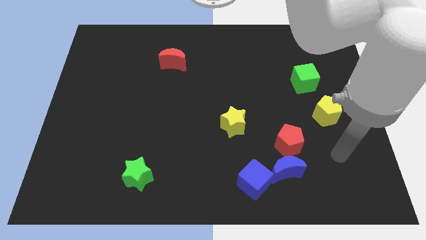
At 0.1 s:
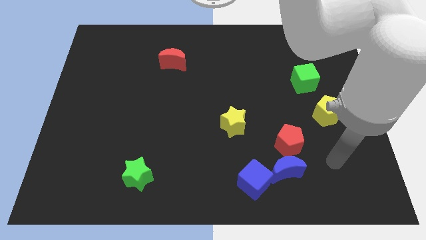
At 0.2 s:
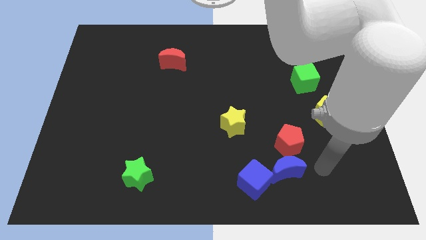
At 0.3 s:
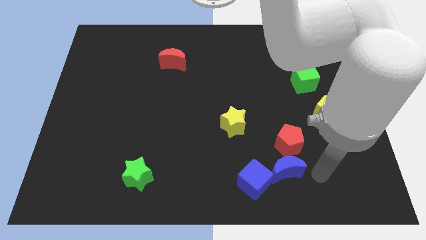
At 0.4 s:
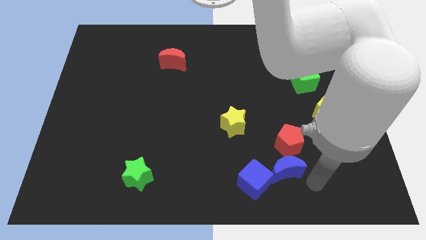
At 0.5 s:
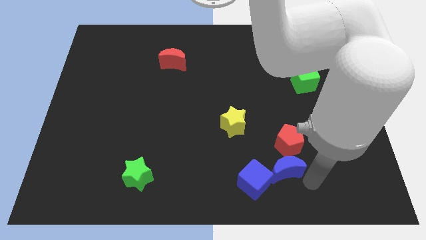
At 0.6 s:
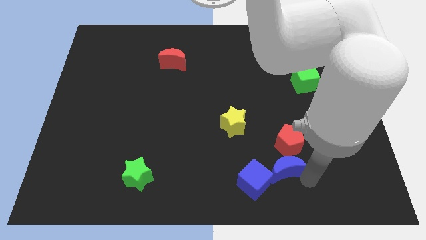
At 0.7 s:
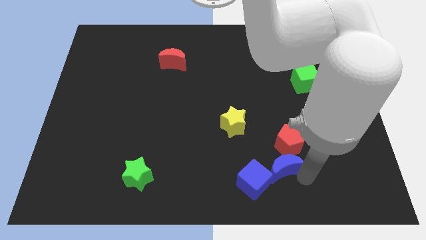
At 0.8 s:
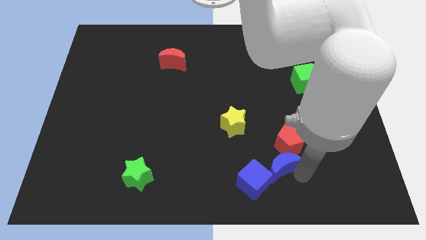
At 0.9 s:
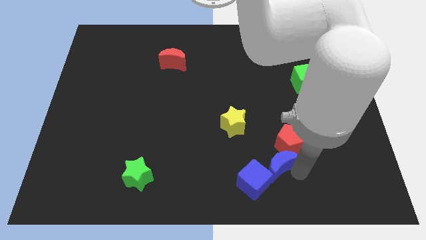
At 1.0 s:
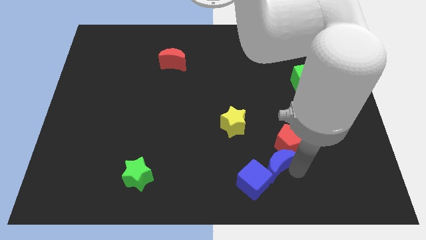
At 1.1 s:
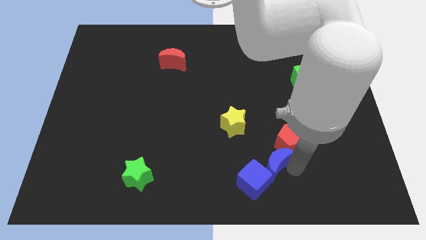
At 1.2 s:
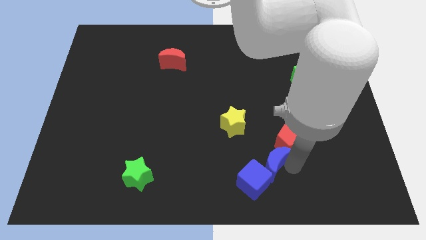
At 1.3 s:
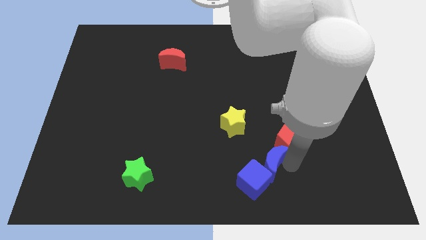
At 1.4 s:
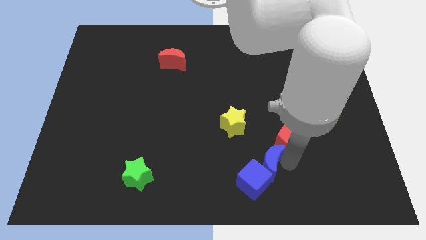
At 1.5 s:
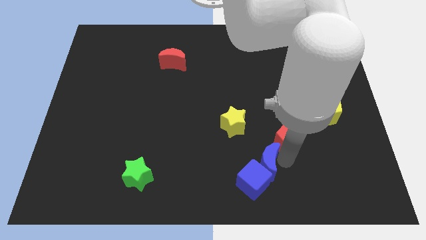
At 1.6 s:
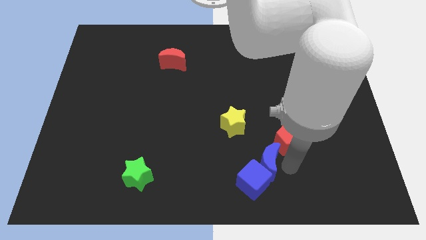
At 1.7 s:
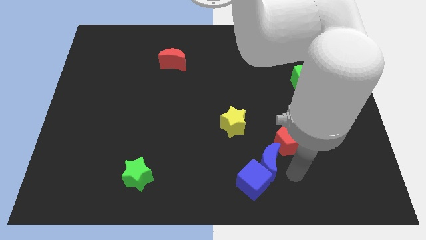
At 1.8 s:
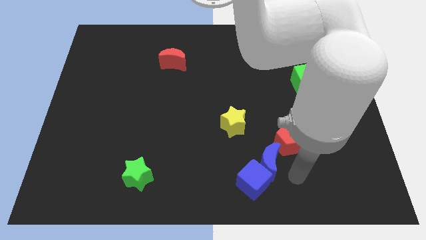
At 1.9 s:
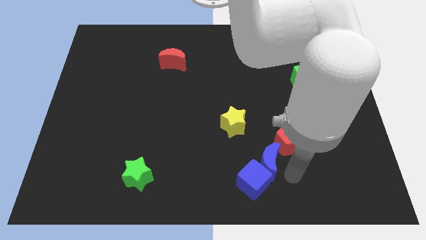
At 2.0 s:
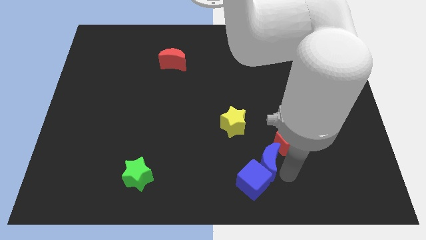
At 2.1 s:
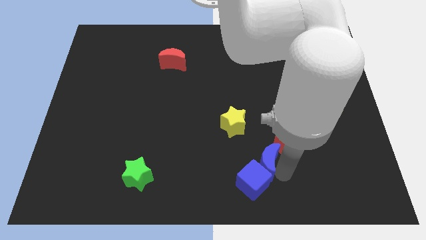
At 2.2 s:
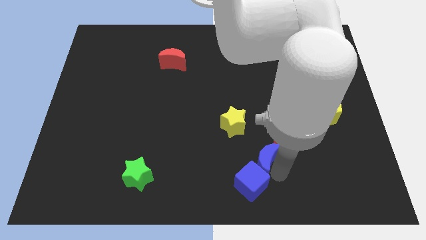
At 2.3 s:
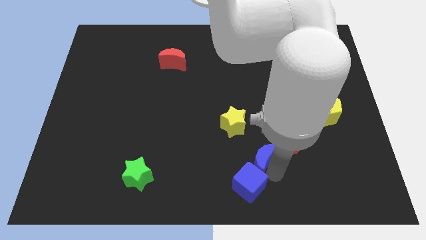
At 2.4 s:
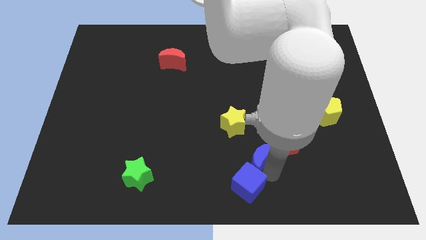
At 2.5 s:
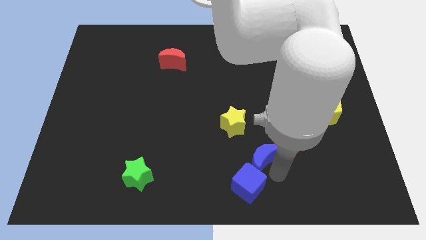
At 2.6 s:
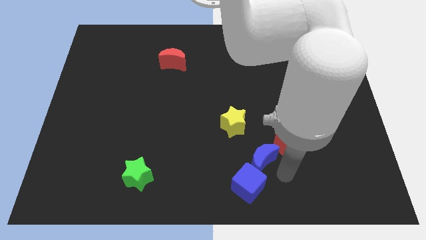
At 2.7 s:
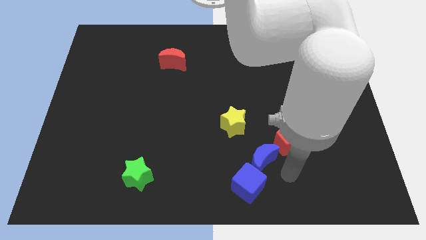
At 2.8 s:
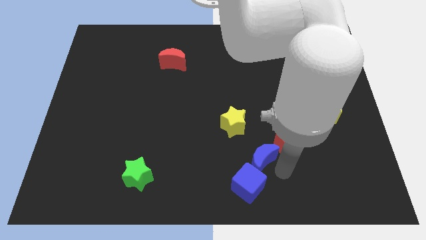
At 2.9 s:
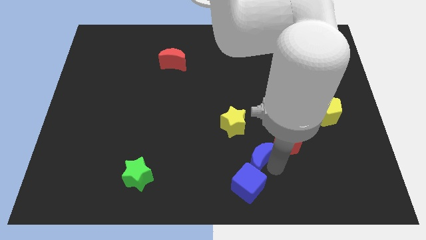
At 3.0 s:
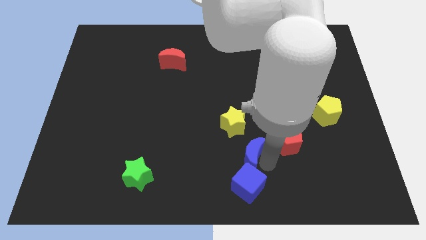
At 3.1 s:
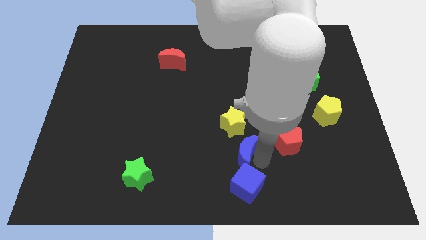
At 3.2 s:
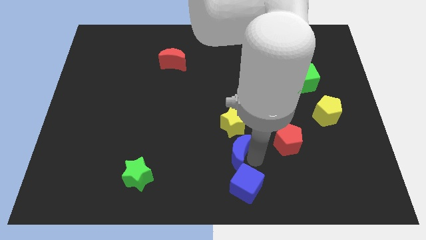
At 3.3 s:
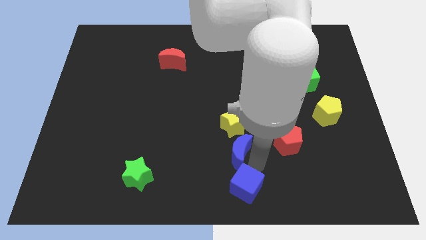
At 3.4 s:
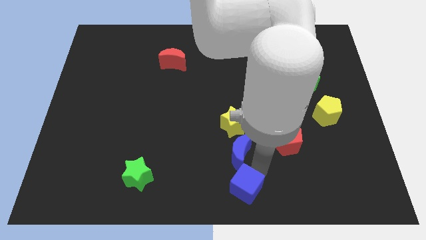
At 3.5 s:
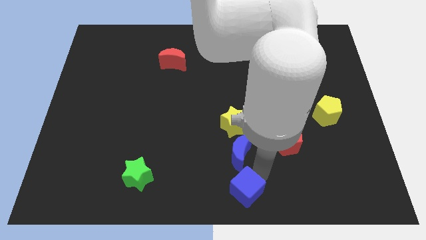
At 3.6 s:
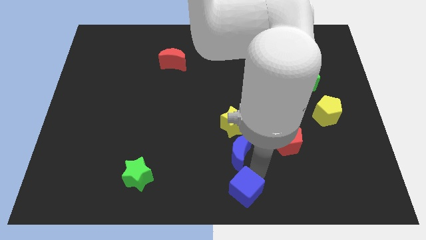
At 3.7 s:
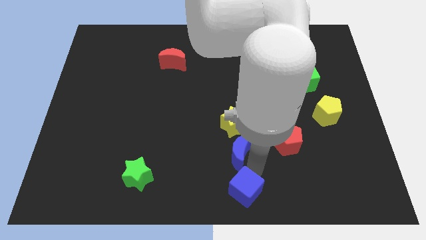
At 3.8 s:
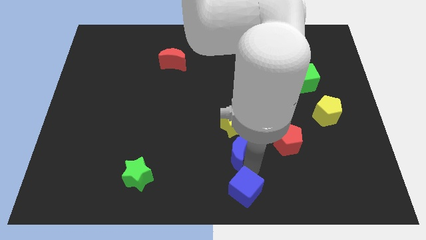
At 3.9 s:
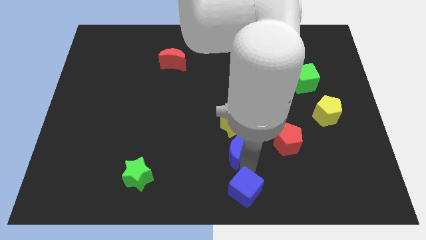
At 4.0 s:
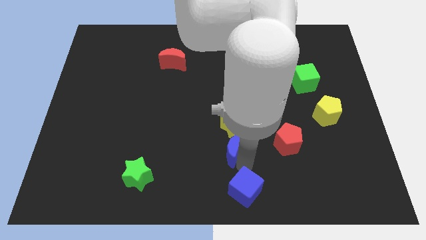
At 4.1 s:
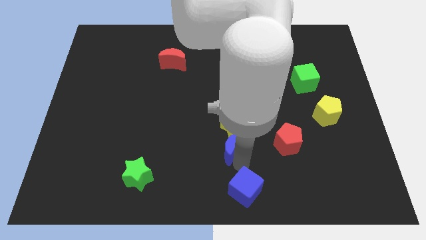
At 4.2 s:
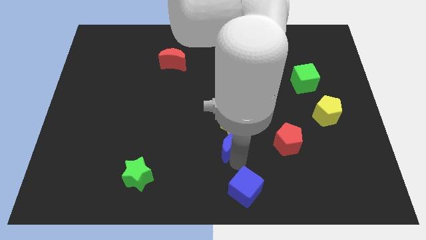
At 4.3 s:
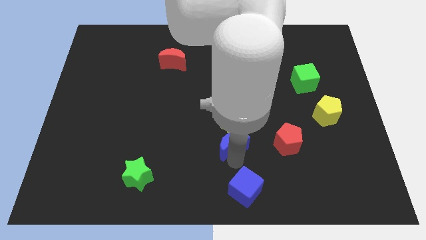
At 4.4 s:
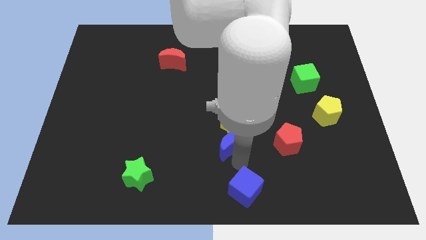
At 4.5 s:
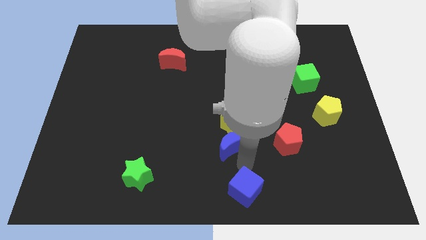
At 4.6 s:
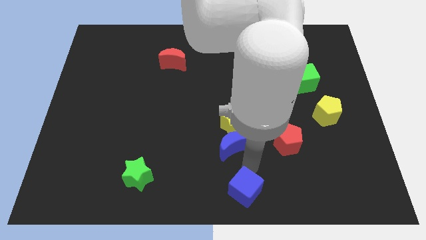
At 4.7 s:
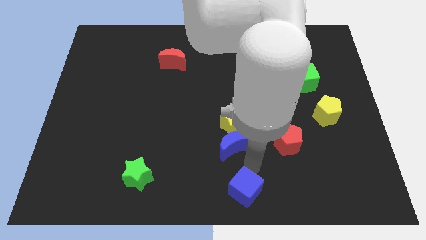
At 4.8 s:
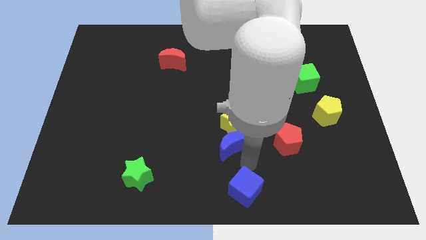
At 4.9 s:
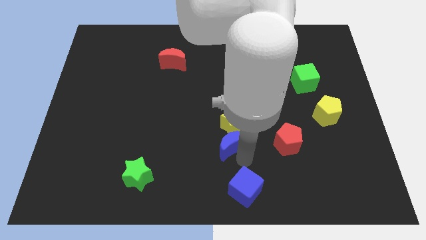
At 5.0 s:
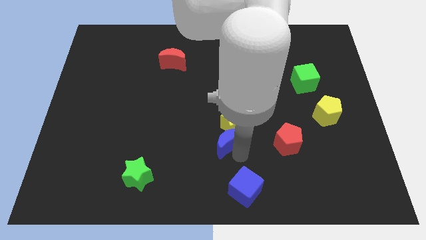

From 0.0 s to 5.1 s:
push the blue moon to the middle

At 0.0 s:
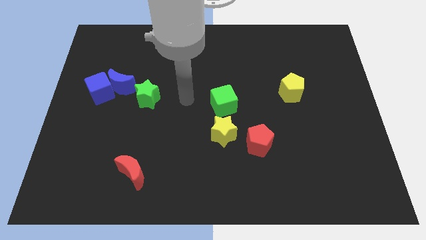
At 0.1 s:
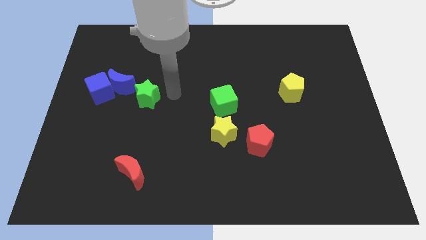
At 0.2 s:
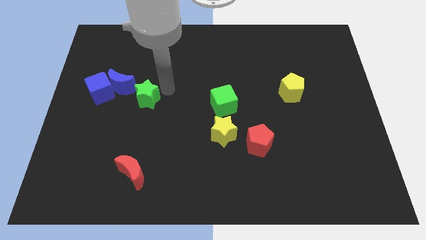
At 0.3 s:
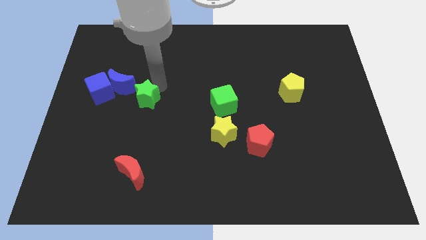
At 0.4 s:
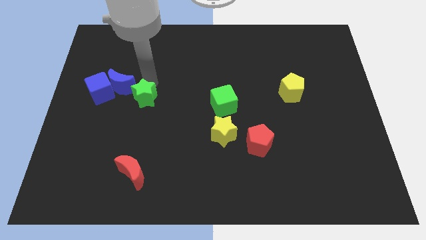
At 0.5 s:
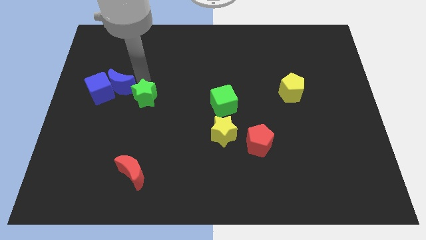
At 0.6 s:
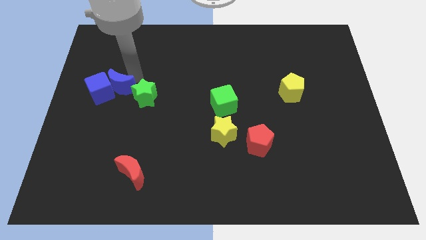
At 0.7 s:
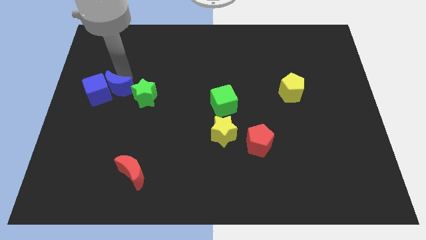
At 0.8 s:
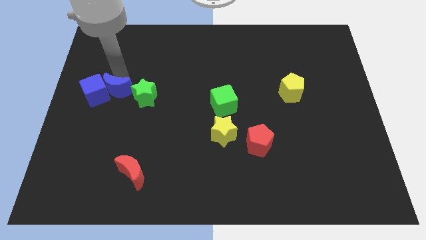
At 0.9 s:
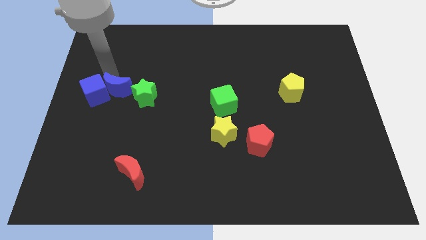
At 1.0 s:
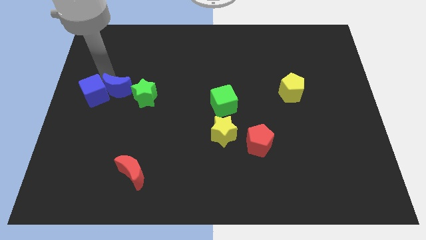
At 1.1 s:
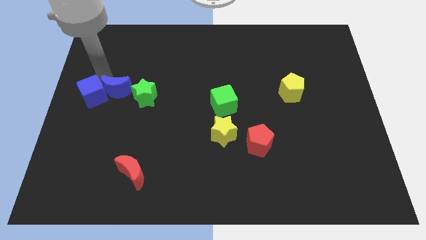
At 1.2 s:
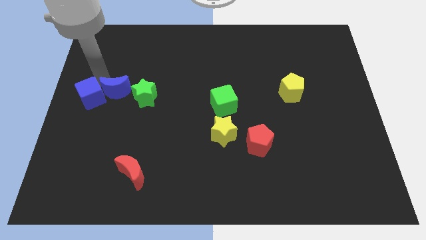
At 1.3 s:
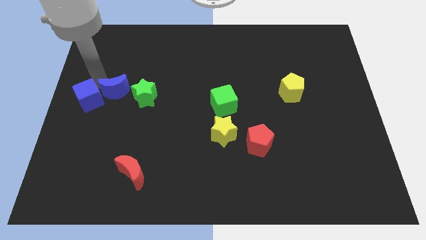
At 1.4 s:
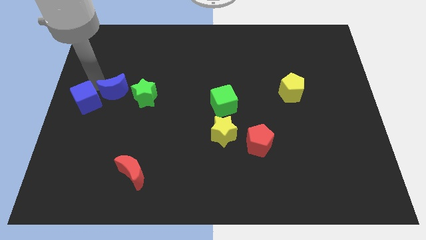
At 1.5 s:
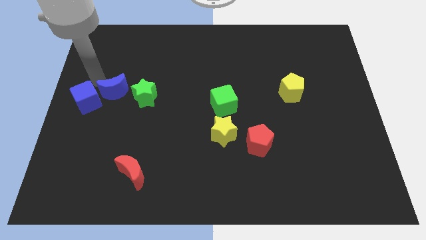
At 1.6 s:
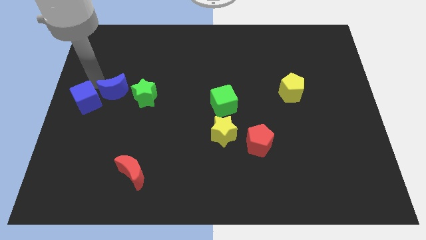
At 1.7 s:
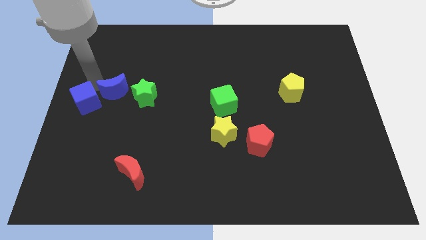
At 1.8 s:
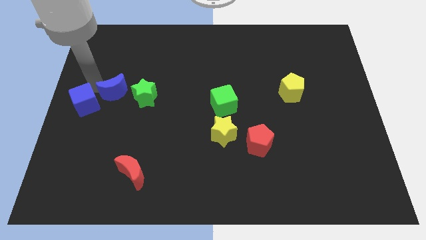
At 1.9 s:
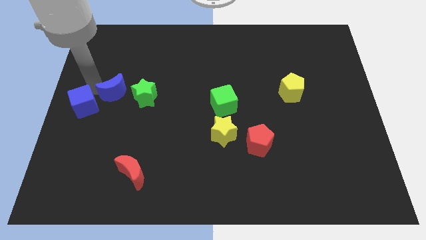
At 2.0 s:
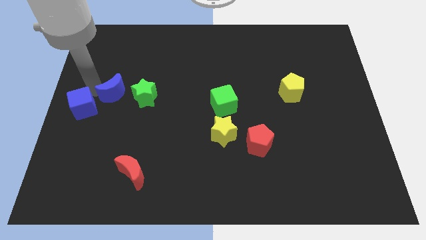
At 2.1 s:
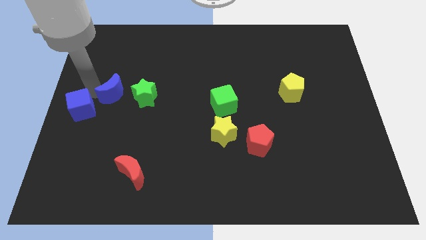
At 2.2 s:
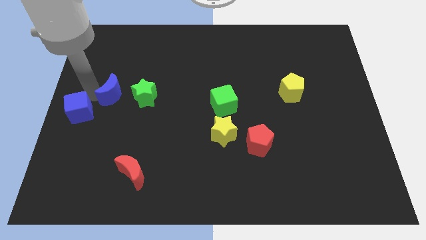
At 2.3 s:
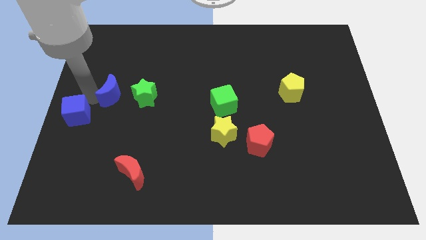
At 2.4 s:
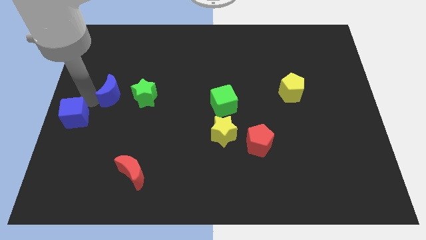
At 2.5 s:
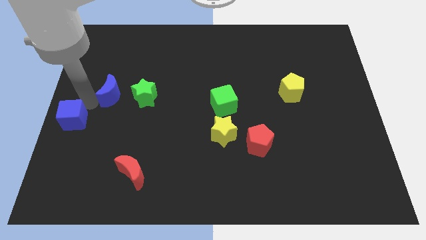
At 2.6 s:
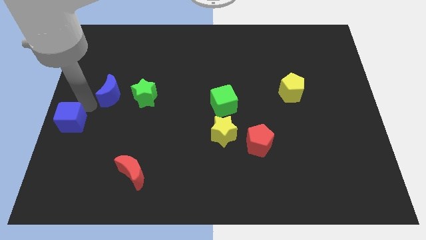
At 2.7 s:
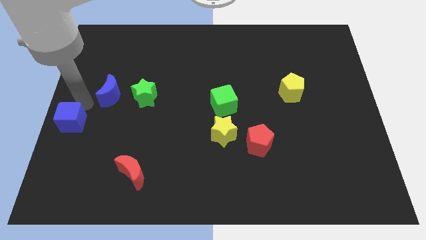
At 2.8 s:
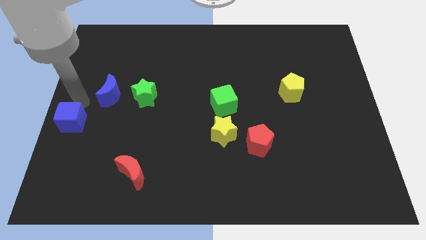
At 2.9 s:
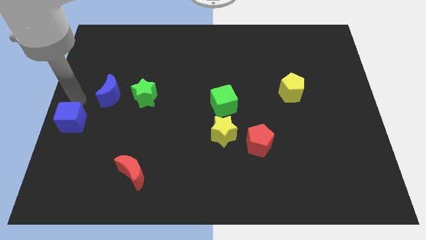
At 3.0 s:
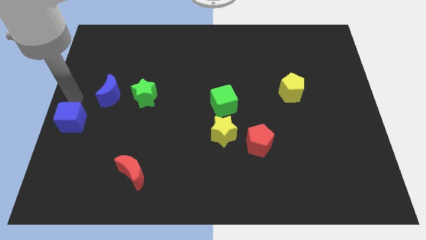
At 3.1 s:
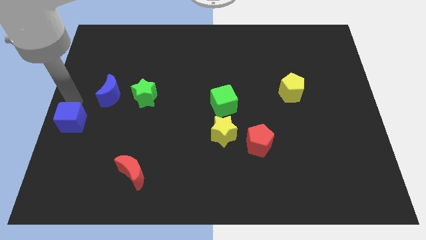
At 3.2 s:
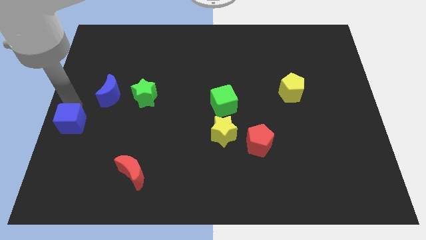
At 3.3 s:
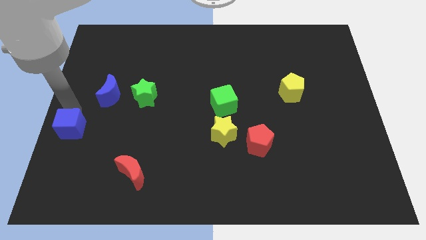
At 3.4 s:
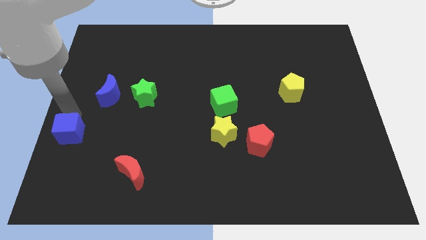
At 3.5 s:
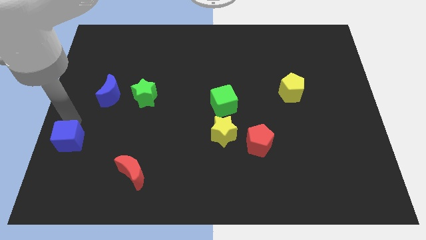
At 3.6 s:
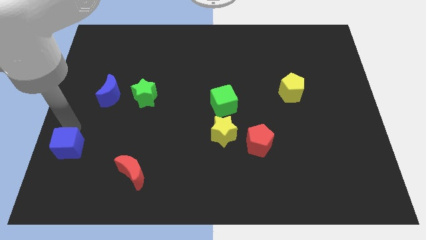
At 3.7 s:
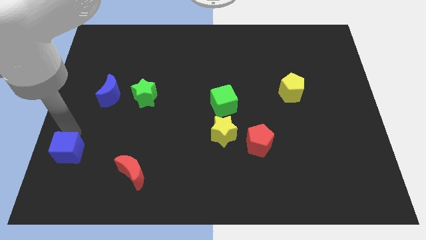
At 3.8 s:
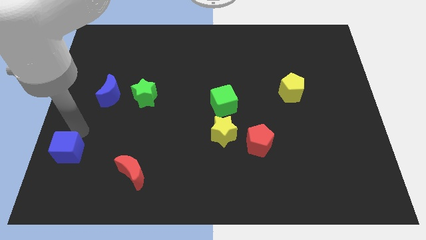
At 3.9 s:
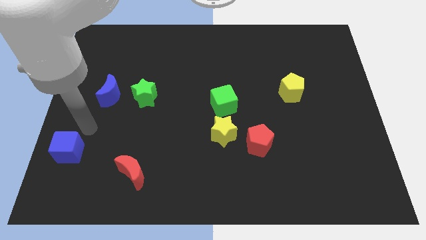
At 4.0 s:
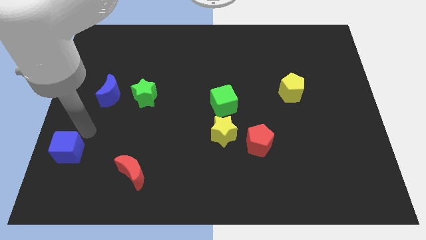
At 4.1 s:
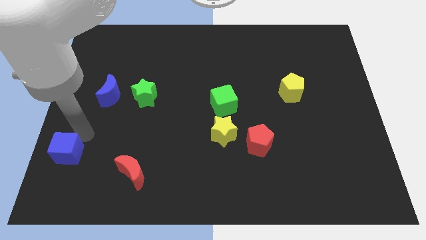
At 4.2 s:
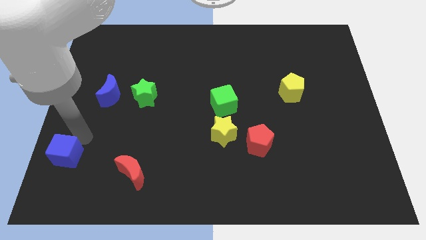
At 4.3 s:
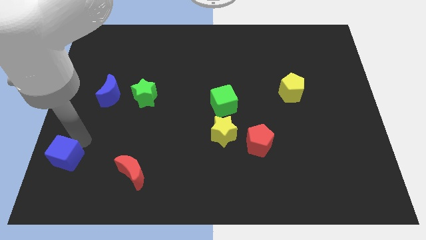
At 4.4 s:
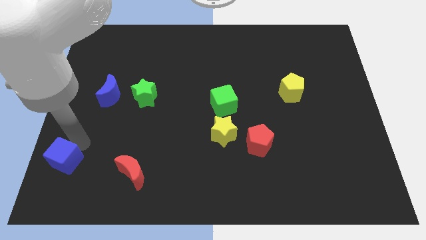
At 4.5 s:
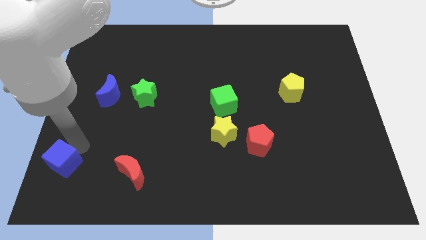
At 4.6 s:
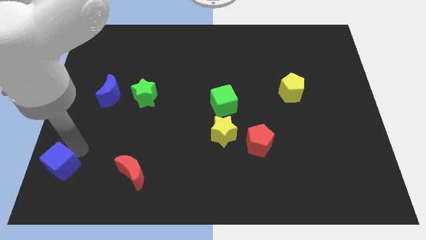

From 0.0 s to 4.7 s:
put the blue cube to the bottom left corner
